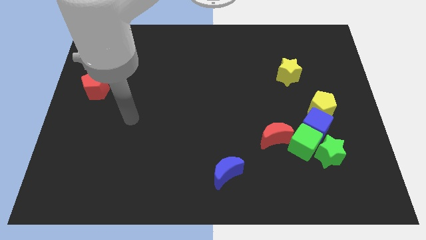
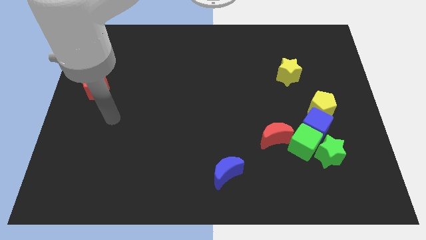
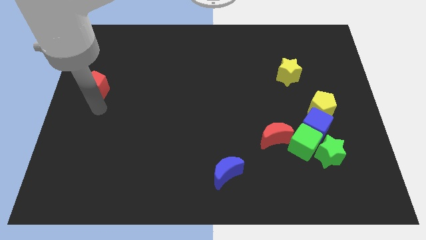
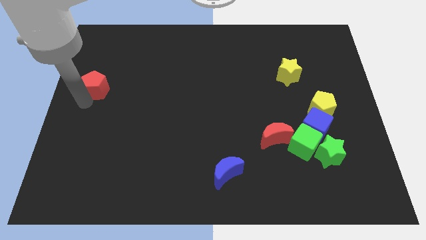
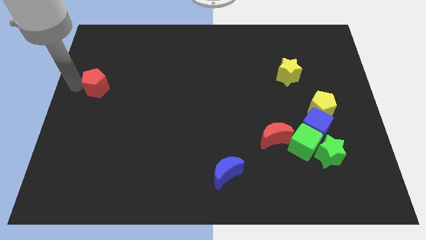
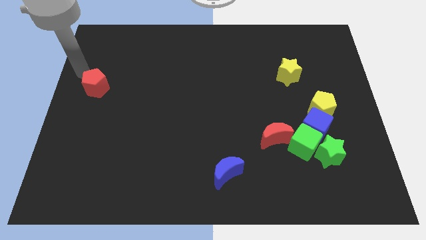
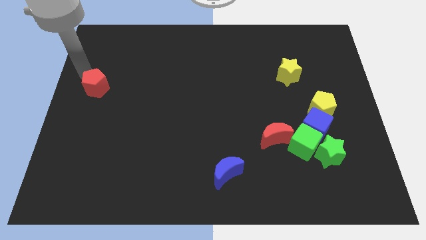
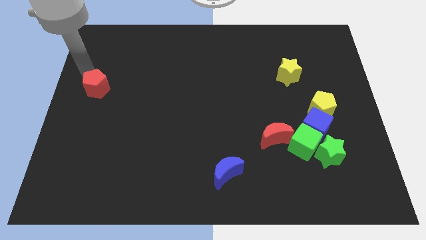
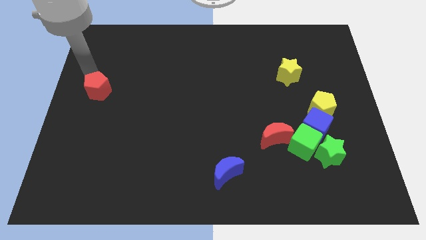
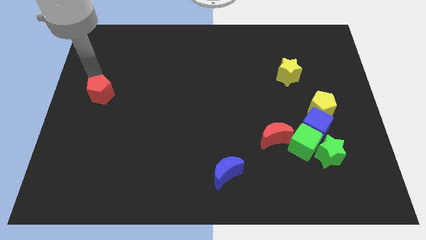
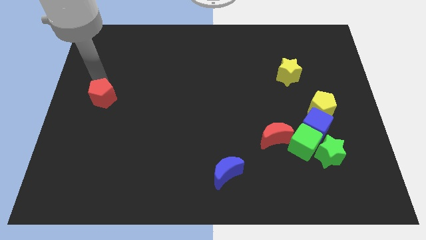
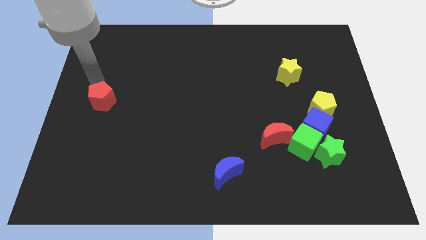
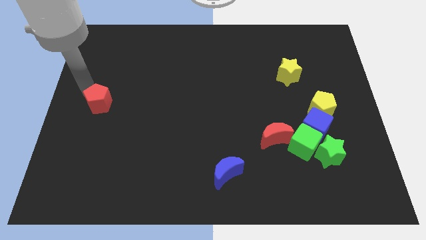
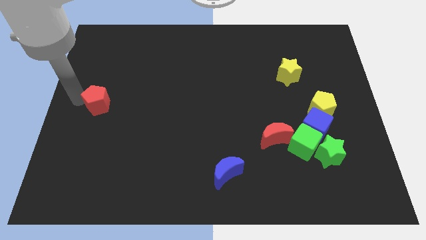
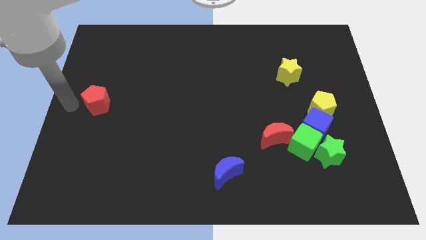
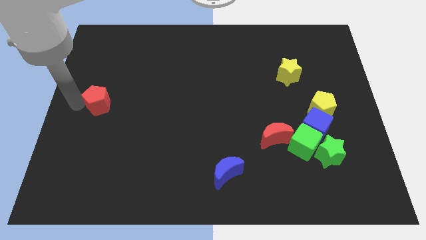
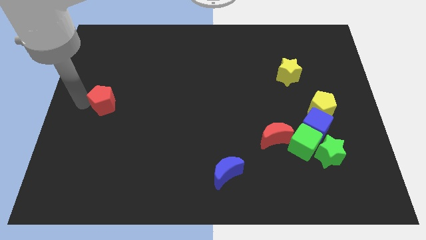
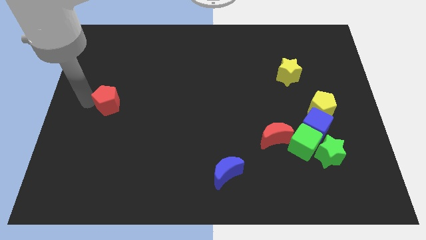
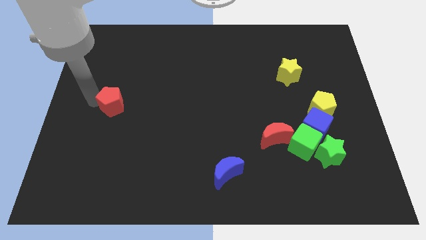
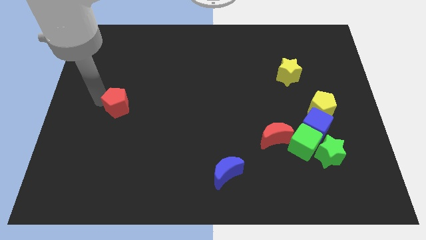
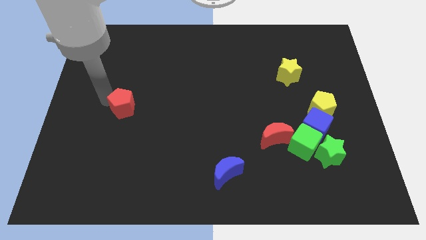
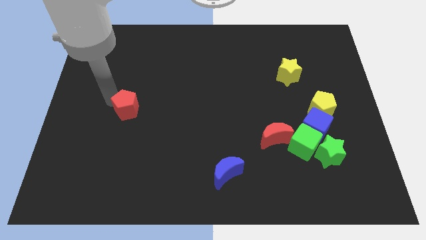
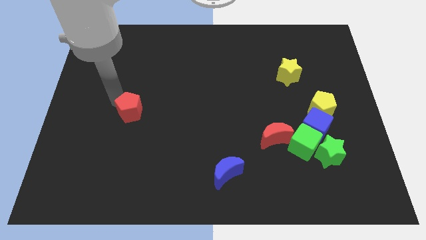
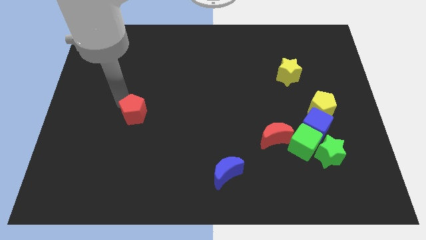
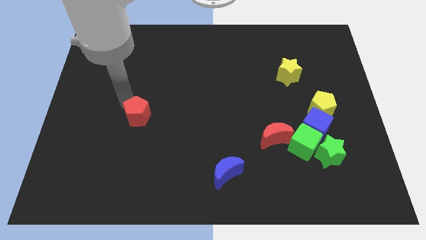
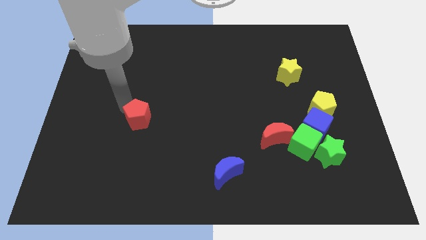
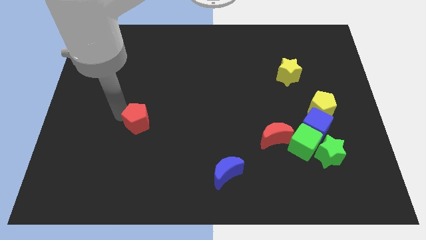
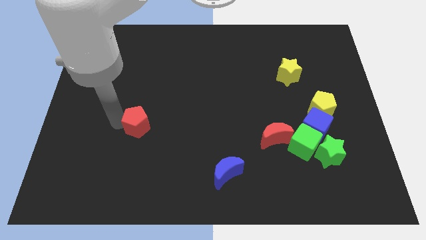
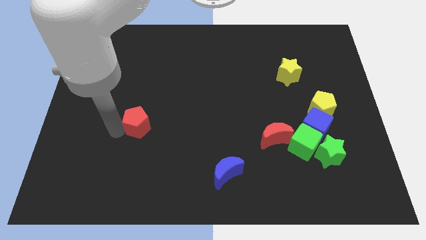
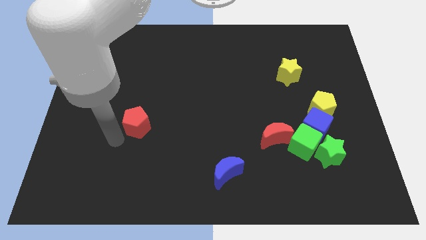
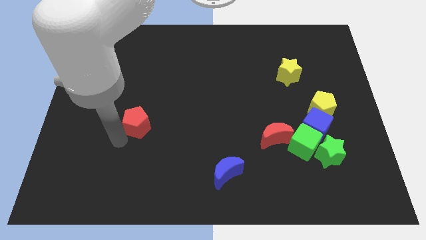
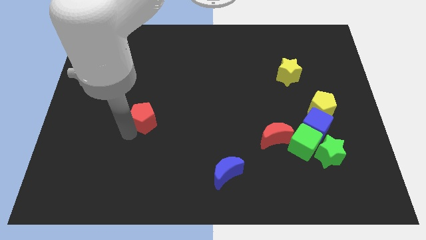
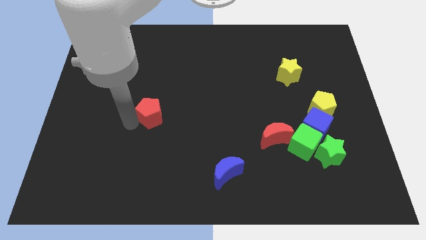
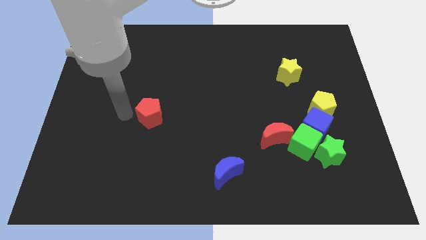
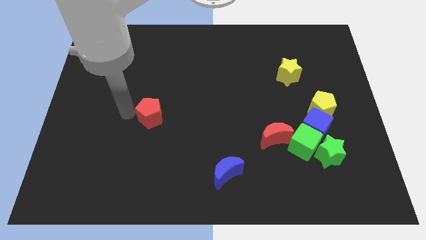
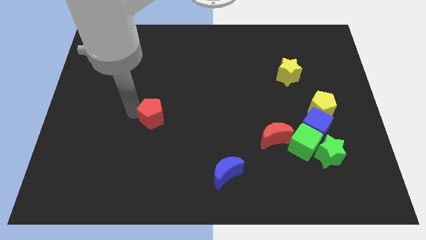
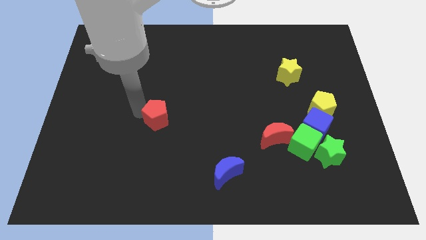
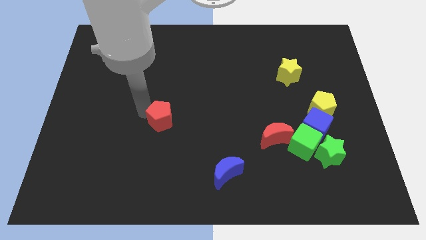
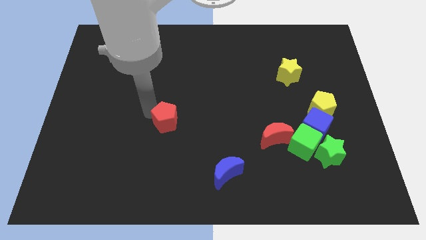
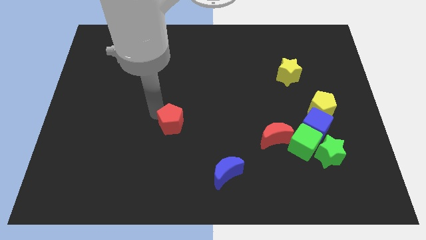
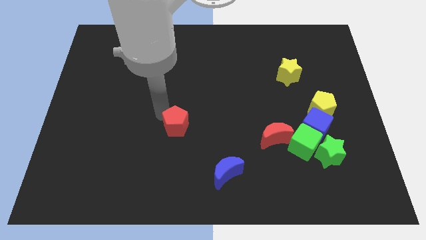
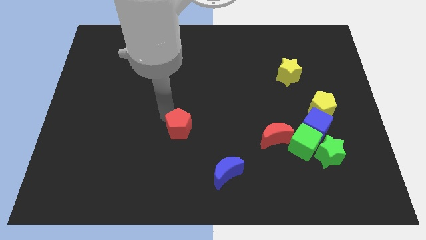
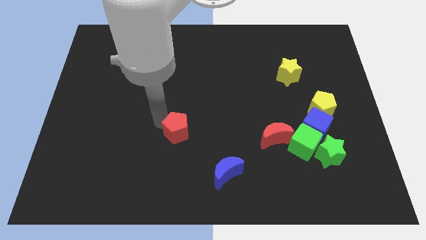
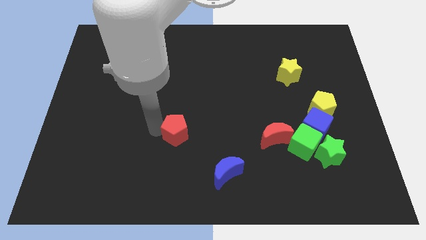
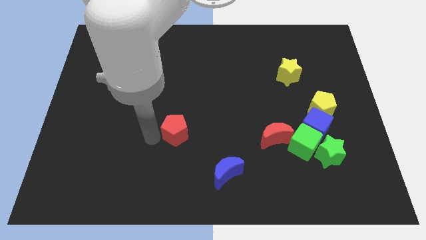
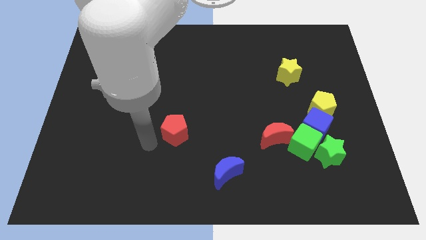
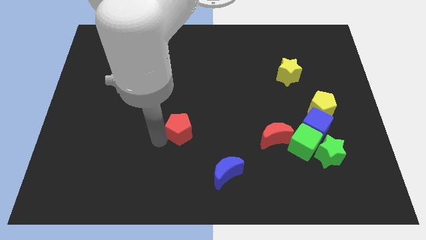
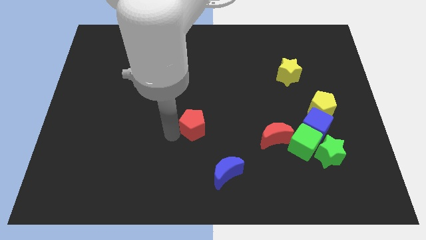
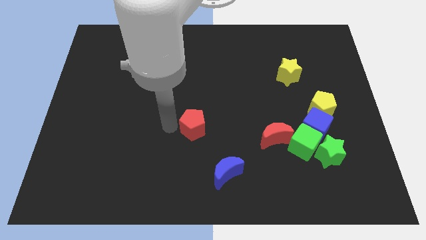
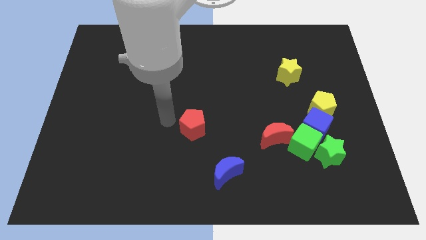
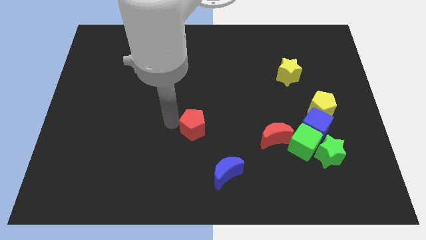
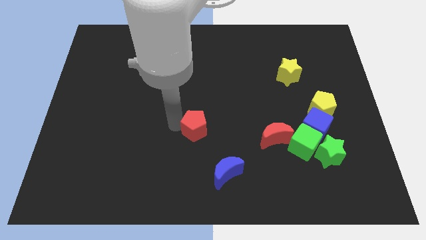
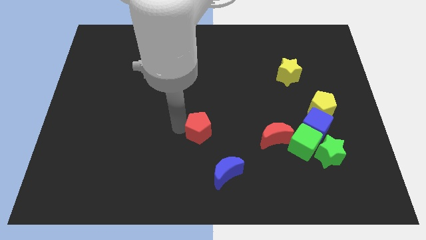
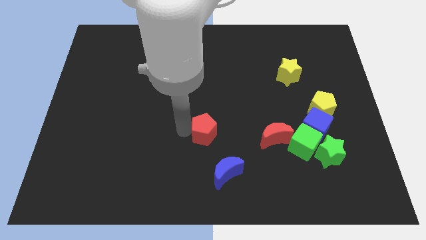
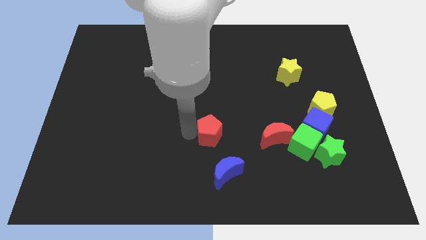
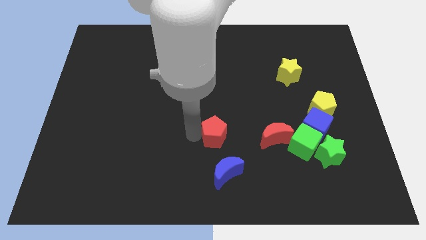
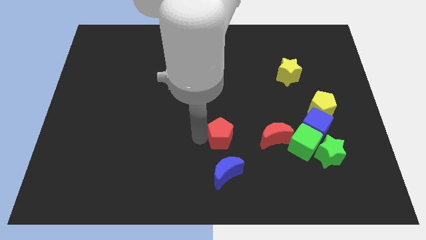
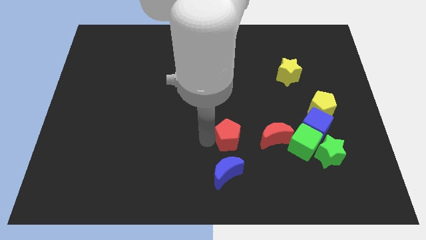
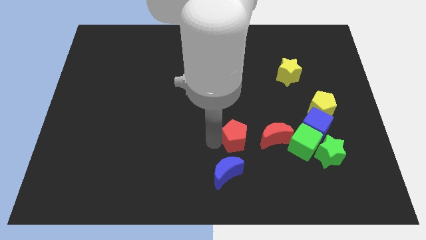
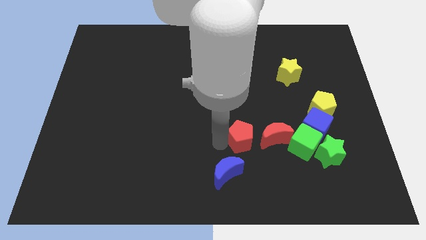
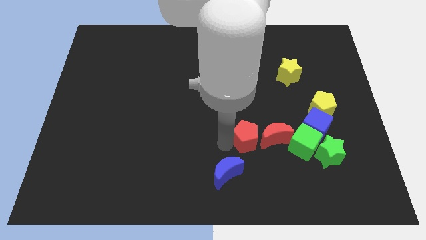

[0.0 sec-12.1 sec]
move the red pentagon towards the red moon

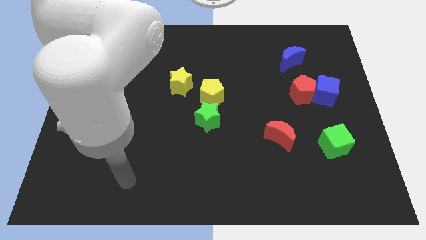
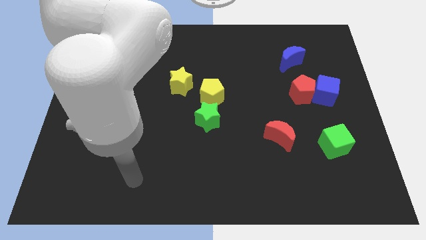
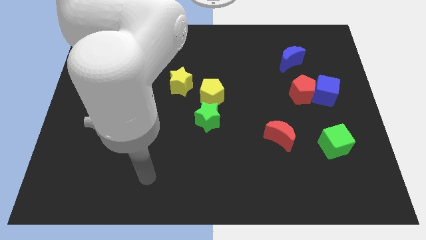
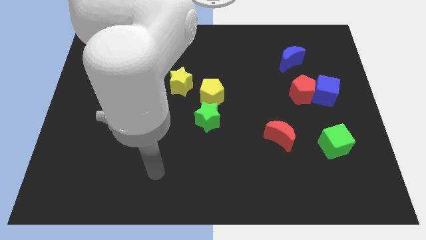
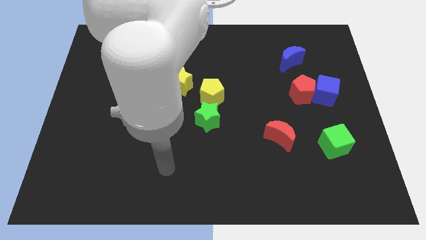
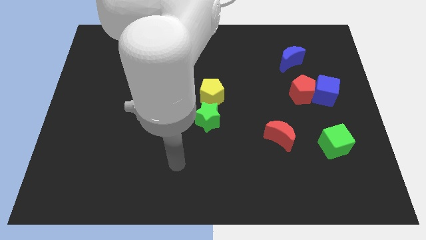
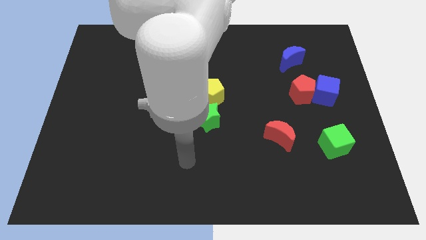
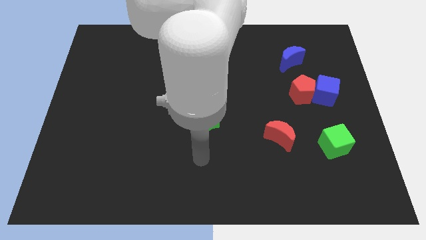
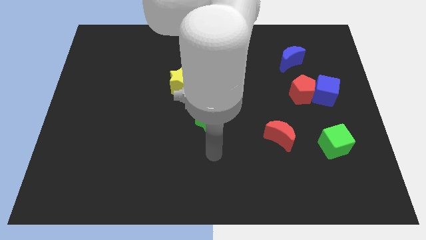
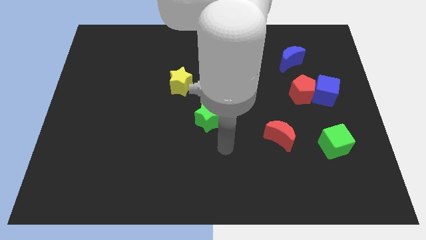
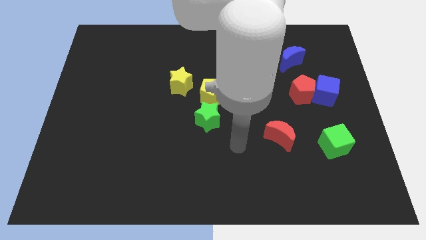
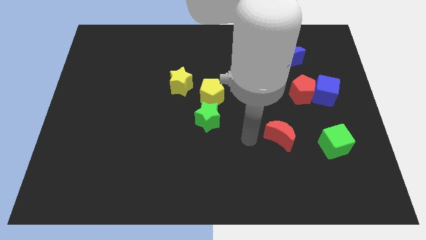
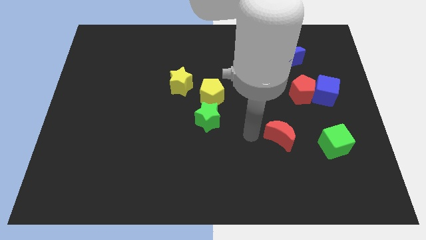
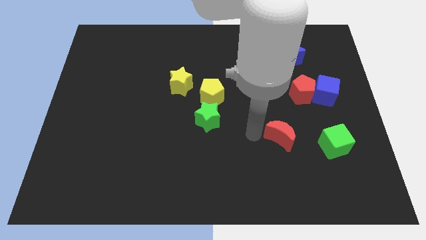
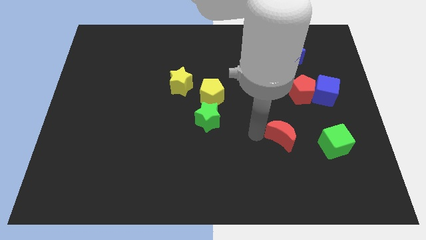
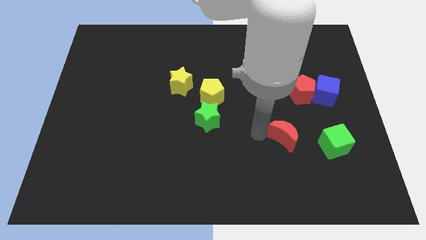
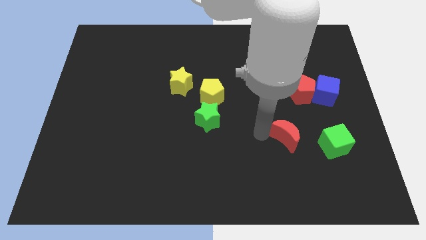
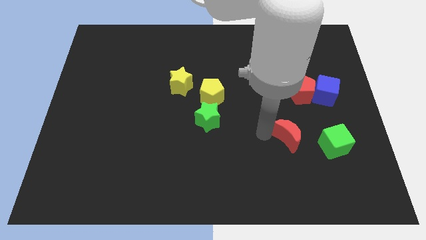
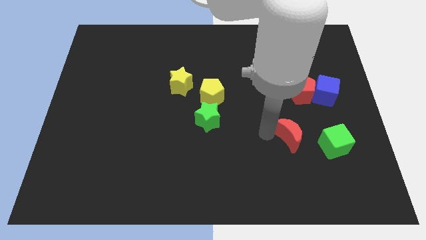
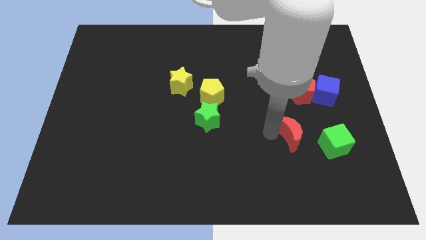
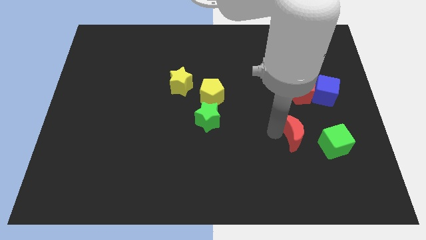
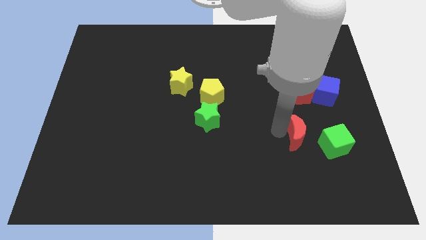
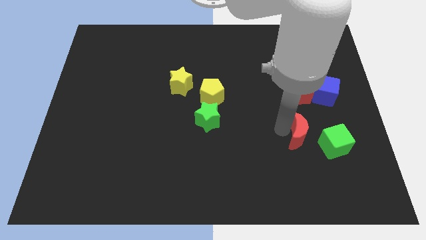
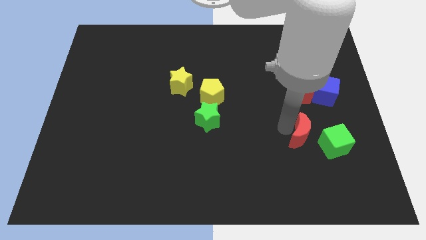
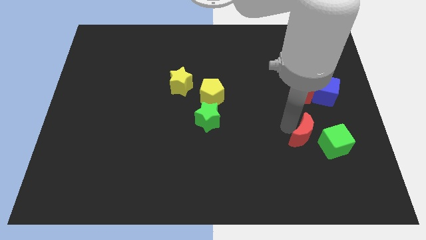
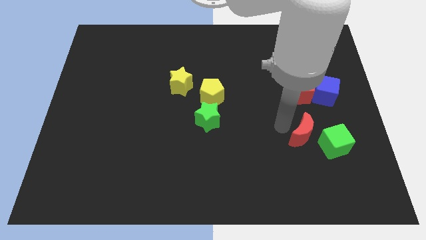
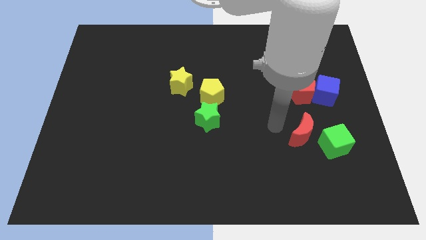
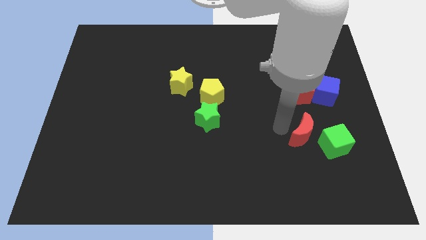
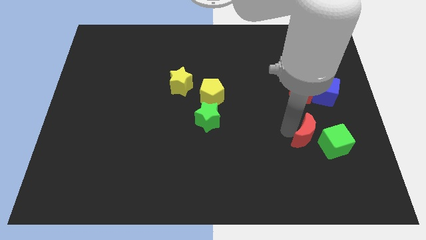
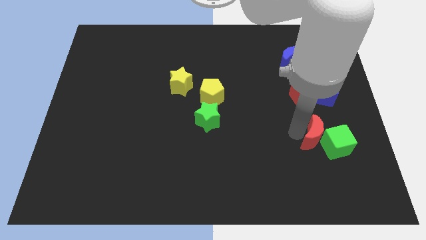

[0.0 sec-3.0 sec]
slide the red moon to the green cube
